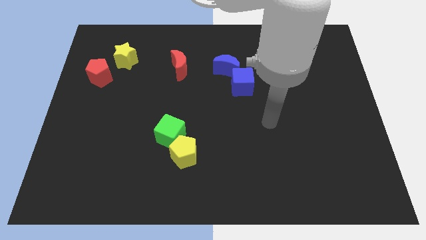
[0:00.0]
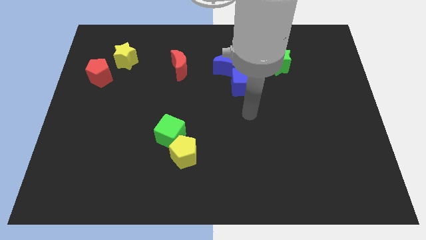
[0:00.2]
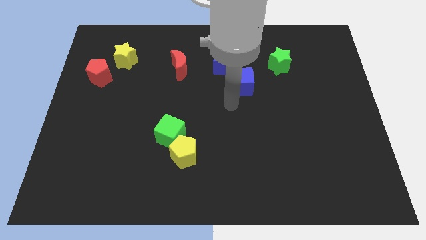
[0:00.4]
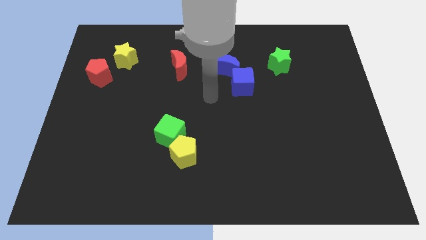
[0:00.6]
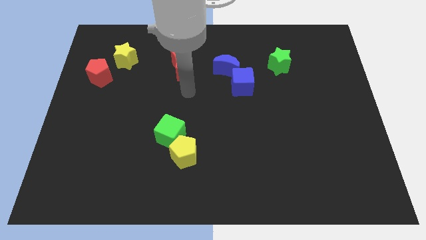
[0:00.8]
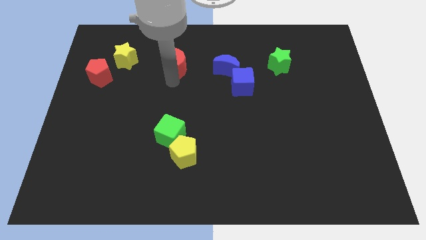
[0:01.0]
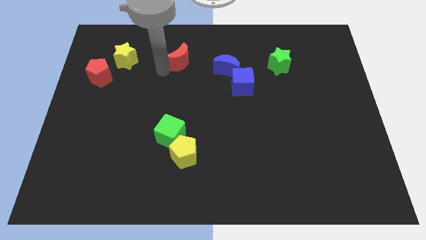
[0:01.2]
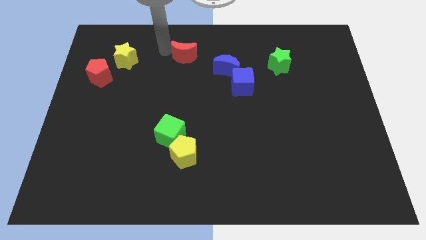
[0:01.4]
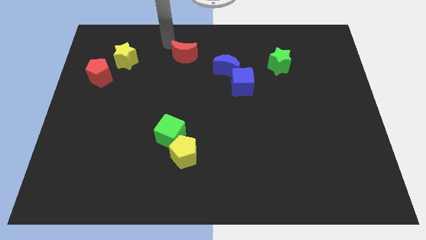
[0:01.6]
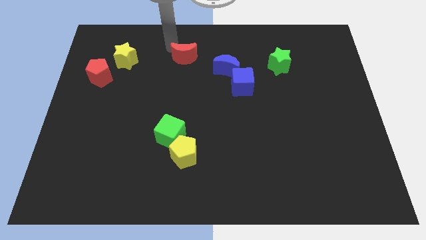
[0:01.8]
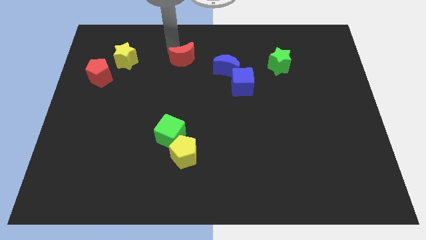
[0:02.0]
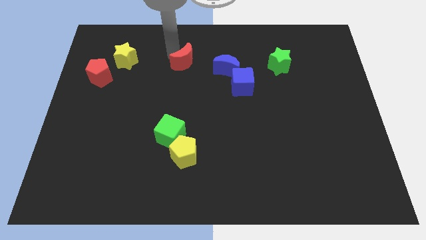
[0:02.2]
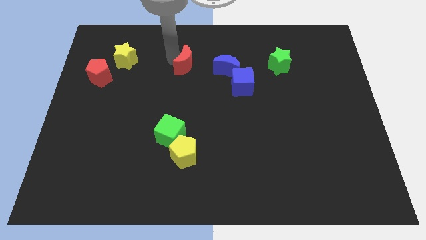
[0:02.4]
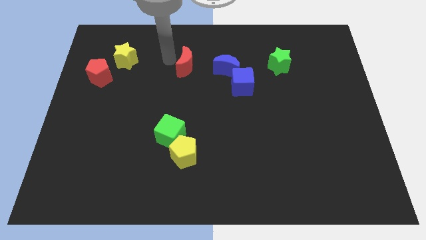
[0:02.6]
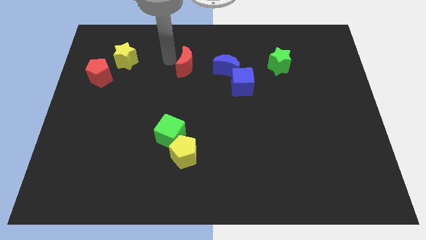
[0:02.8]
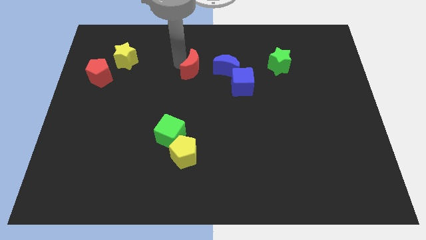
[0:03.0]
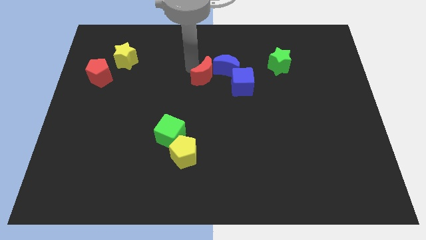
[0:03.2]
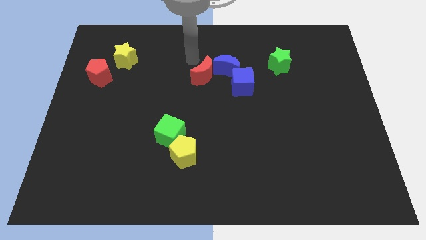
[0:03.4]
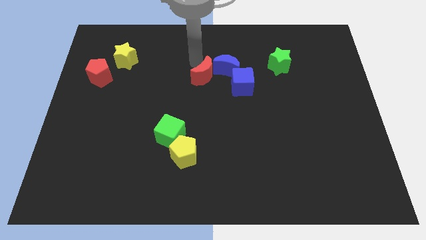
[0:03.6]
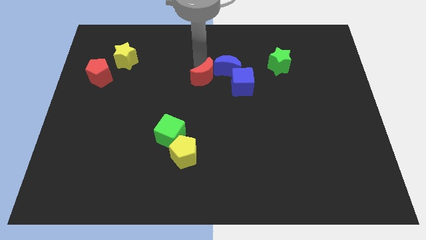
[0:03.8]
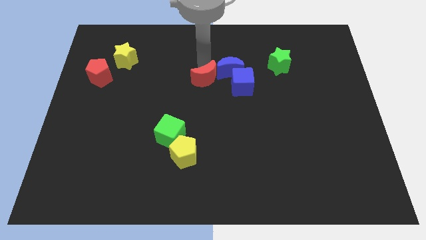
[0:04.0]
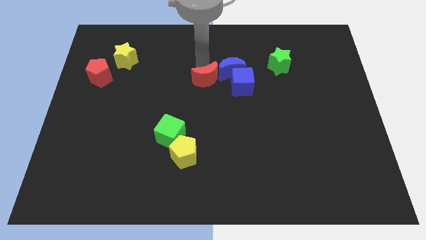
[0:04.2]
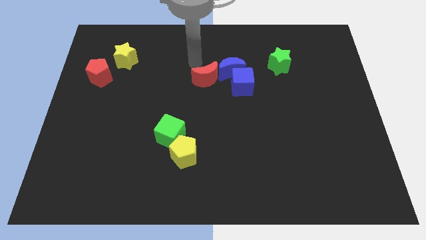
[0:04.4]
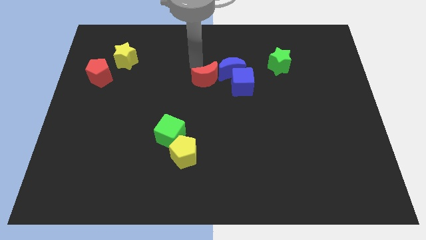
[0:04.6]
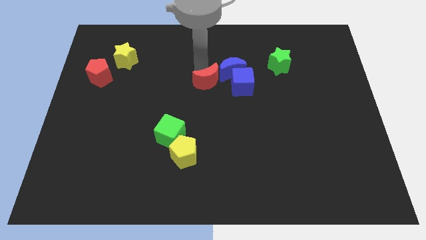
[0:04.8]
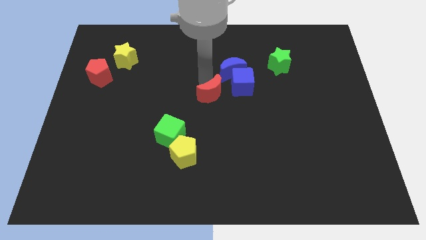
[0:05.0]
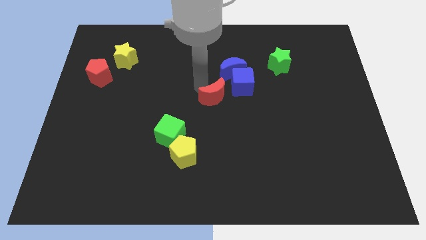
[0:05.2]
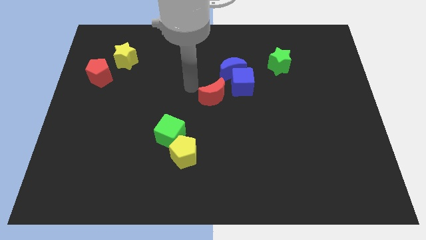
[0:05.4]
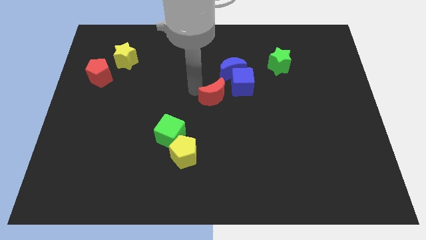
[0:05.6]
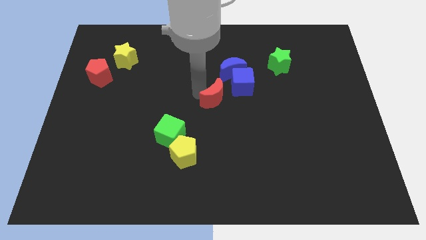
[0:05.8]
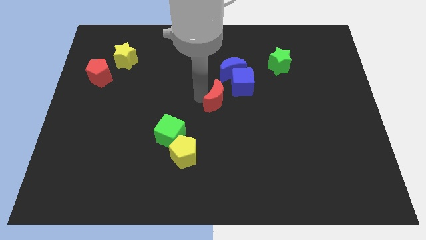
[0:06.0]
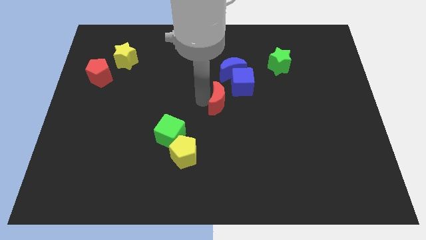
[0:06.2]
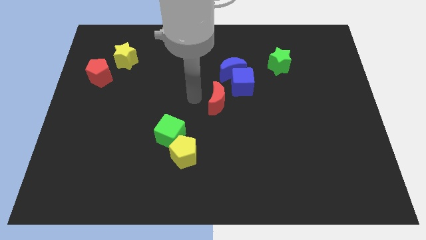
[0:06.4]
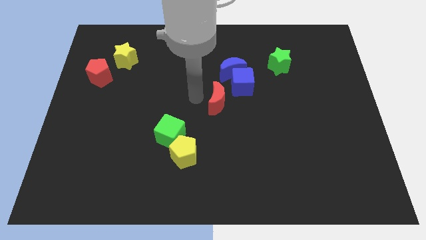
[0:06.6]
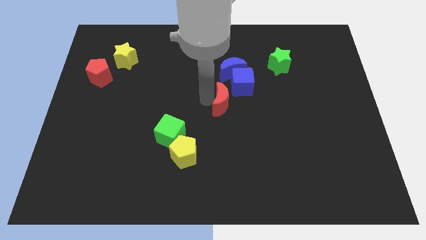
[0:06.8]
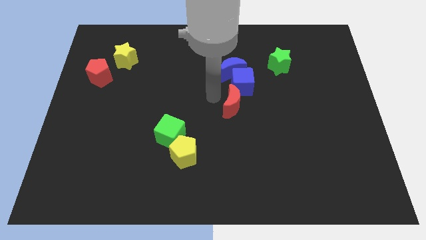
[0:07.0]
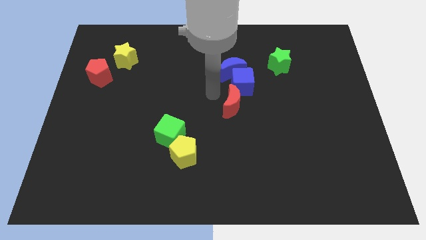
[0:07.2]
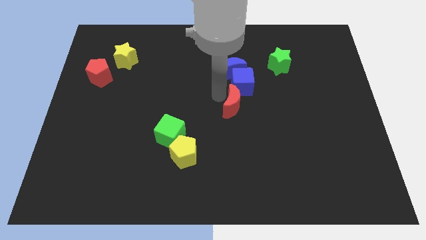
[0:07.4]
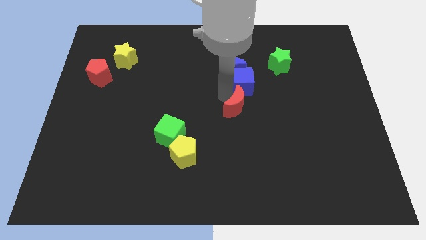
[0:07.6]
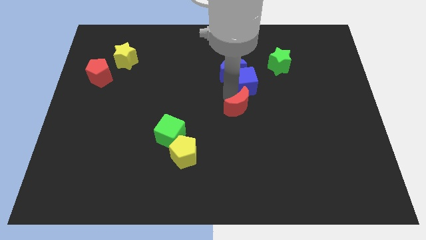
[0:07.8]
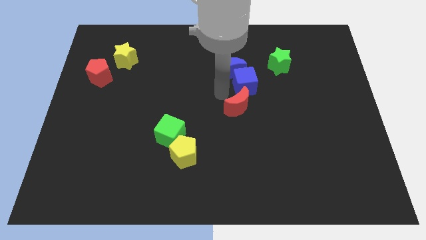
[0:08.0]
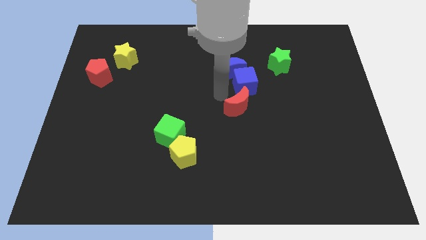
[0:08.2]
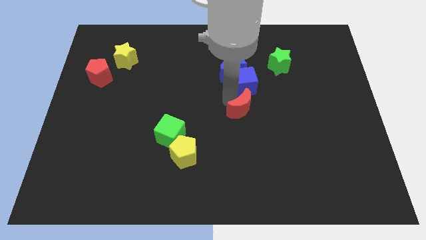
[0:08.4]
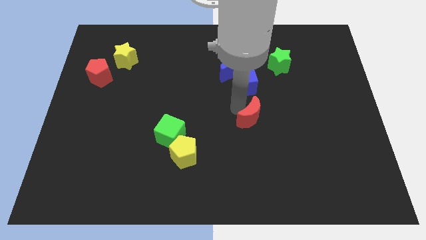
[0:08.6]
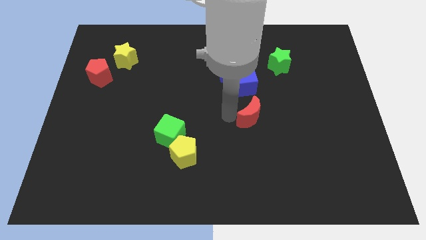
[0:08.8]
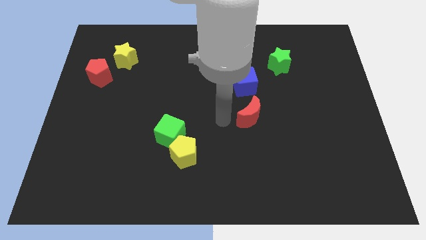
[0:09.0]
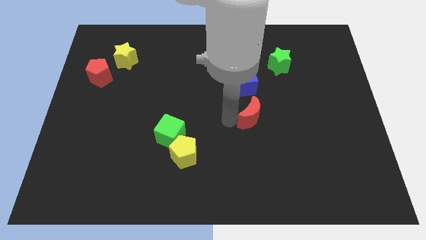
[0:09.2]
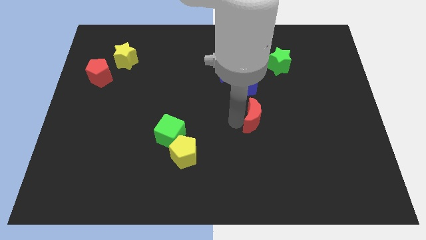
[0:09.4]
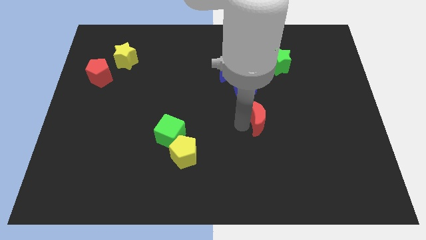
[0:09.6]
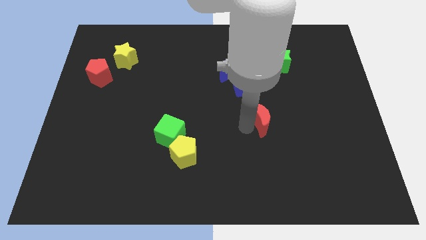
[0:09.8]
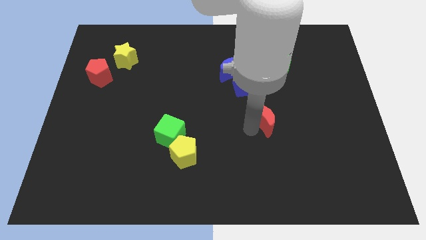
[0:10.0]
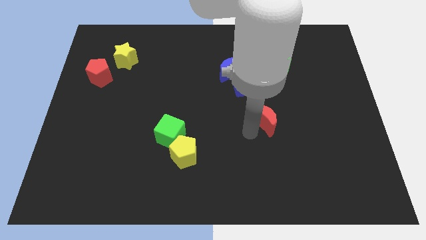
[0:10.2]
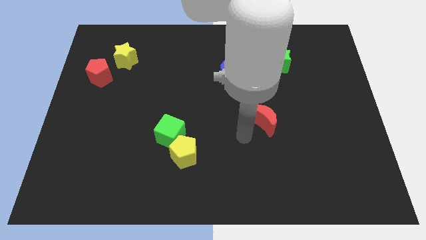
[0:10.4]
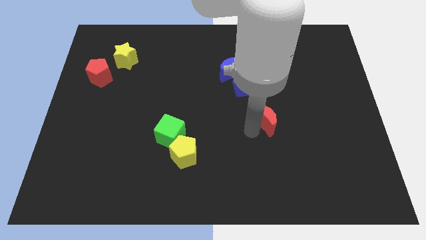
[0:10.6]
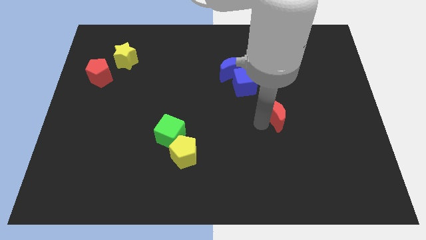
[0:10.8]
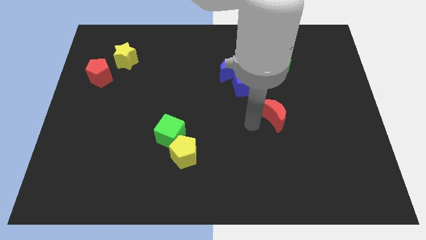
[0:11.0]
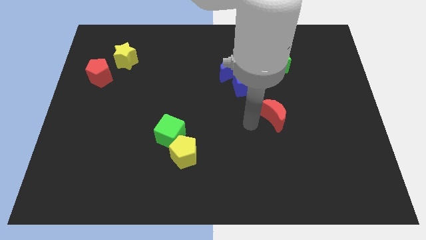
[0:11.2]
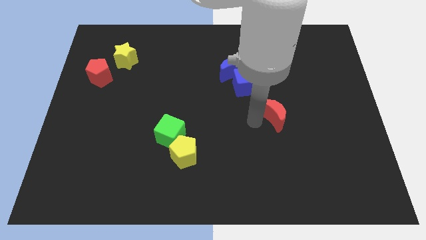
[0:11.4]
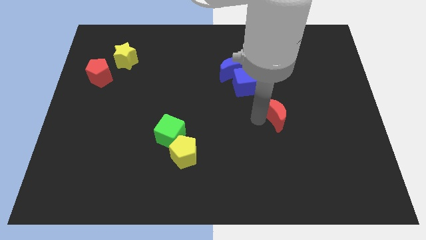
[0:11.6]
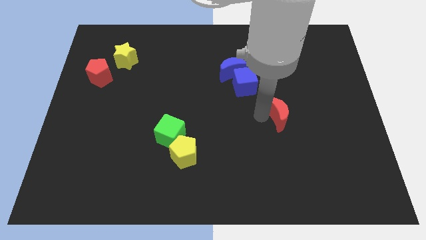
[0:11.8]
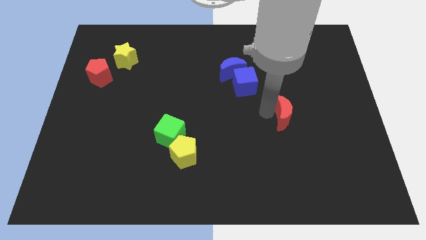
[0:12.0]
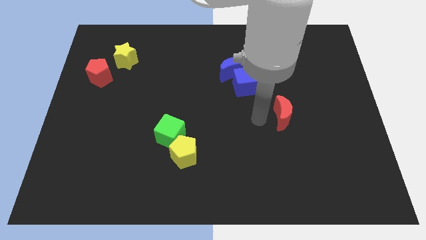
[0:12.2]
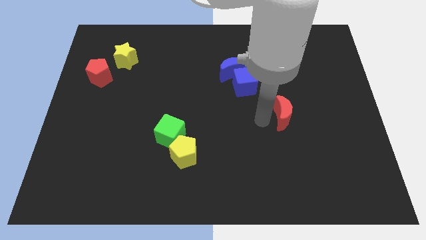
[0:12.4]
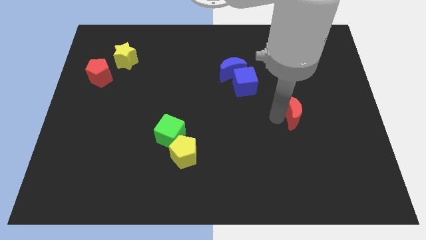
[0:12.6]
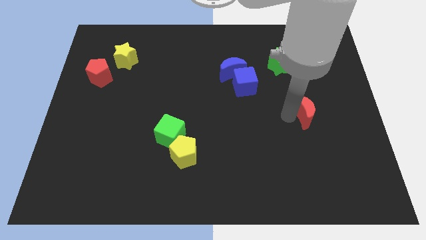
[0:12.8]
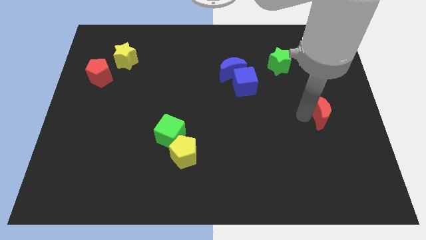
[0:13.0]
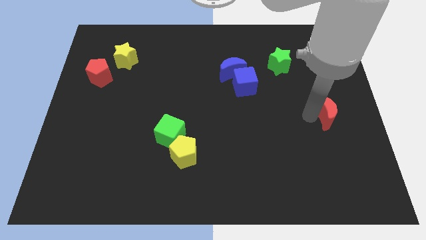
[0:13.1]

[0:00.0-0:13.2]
slide the red moon to the right side of the board
